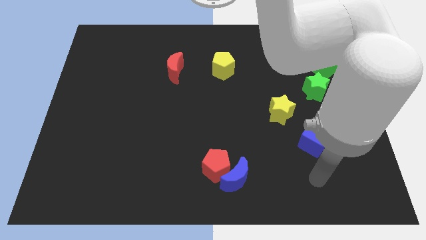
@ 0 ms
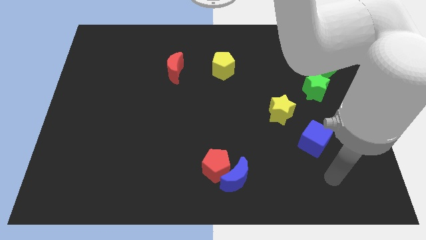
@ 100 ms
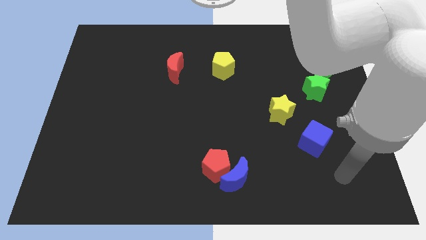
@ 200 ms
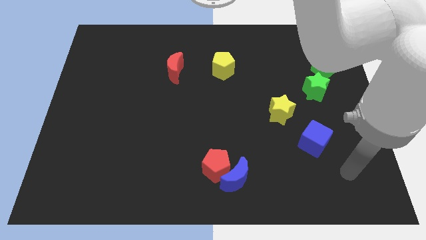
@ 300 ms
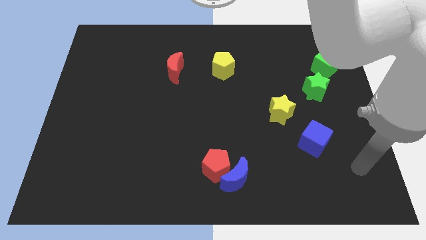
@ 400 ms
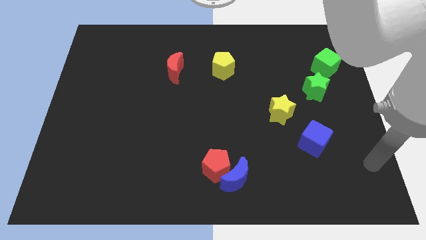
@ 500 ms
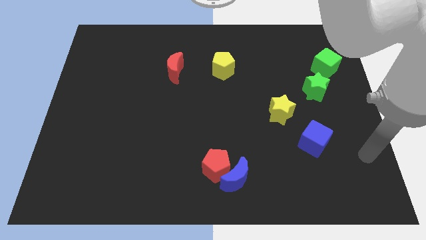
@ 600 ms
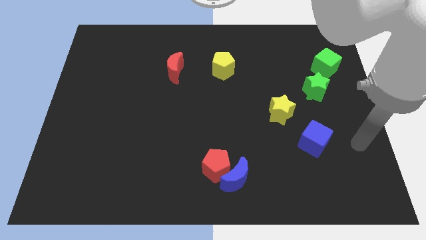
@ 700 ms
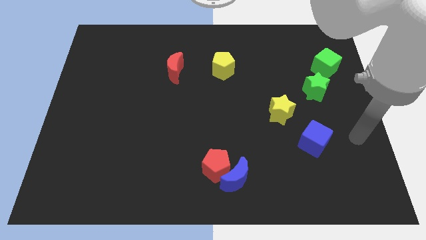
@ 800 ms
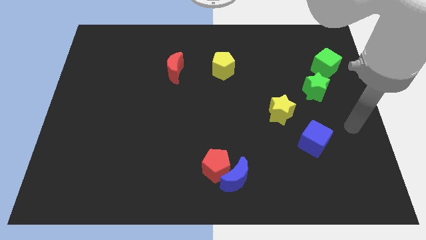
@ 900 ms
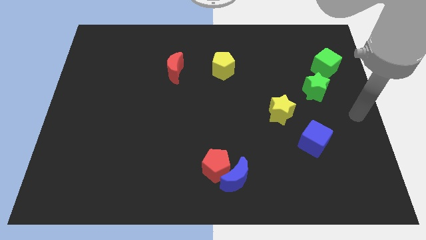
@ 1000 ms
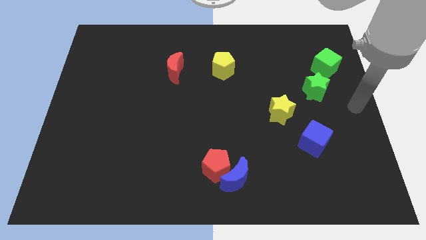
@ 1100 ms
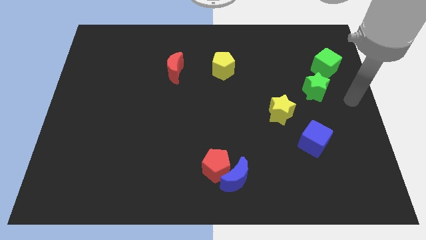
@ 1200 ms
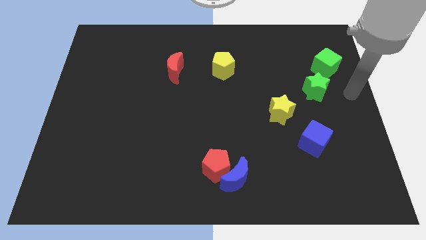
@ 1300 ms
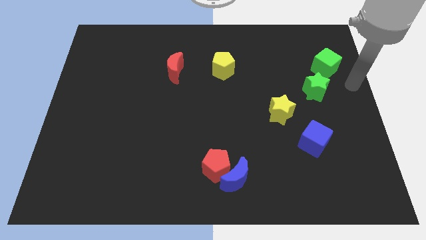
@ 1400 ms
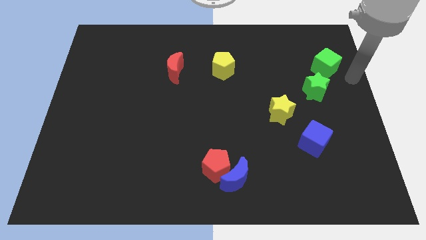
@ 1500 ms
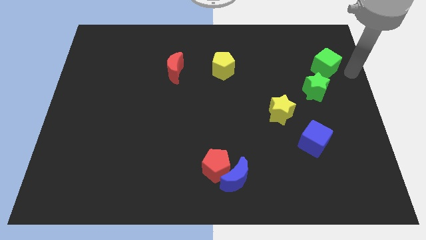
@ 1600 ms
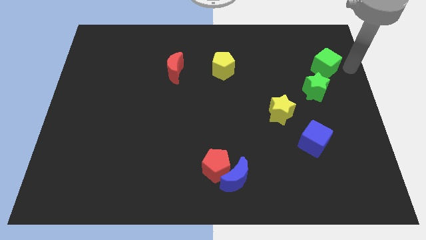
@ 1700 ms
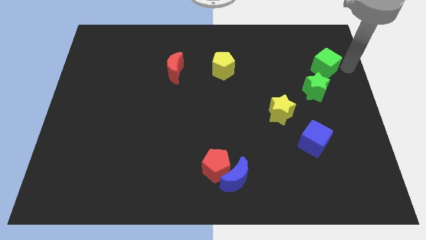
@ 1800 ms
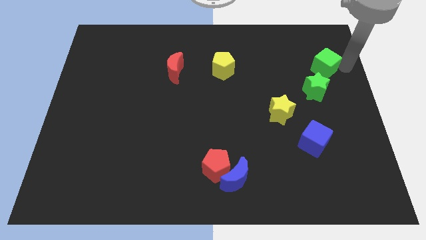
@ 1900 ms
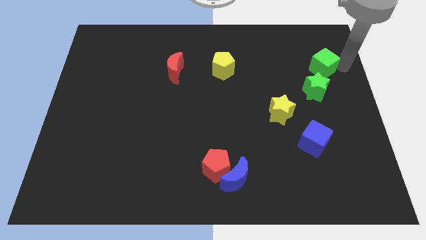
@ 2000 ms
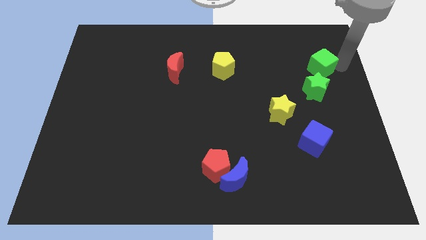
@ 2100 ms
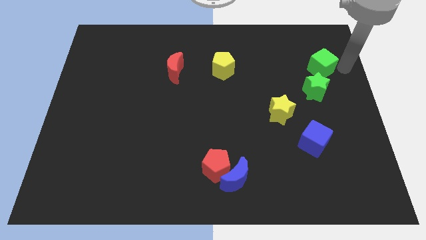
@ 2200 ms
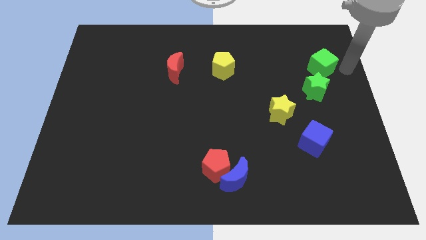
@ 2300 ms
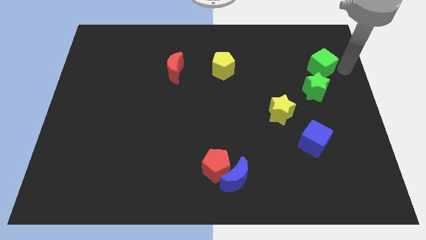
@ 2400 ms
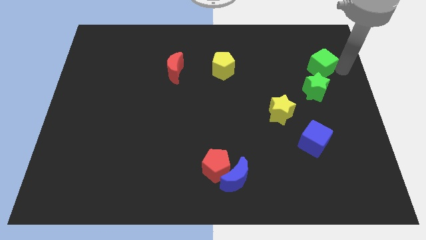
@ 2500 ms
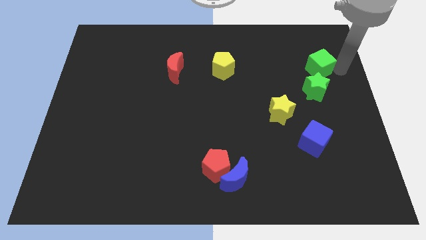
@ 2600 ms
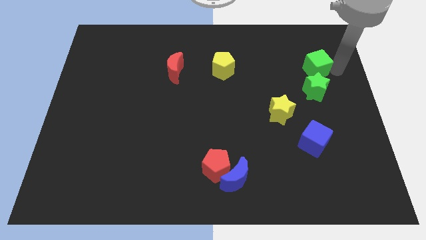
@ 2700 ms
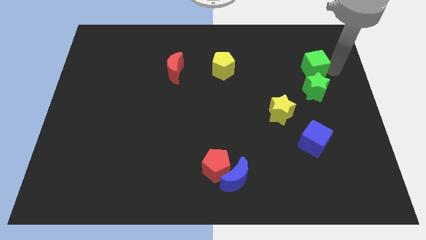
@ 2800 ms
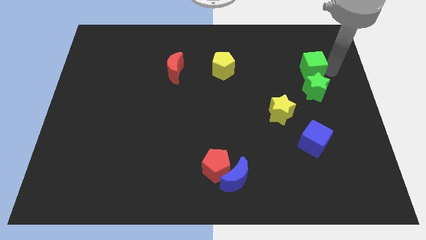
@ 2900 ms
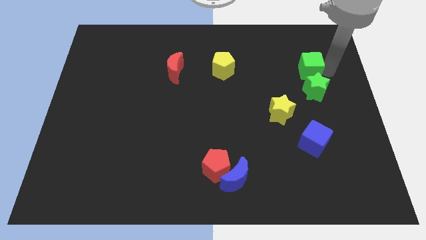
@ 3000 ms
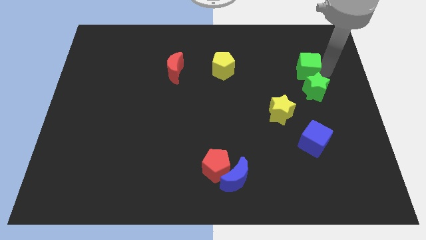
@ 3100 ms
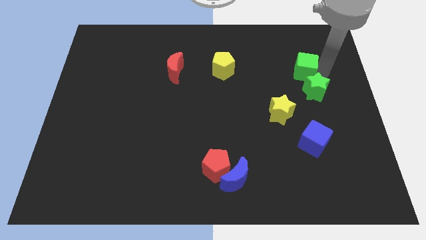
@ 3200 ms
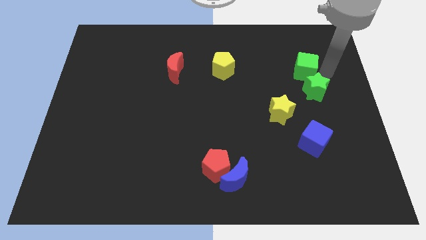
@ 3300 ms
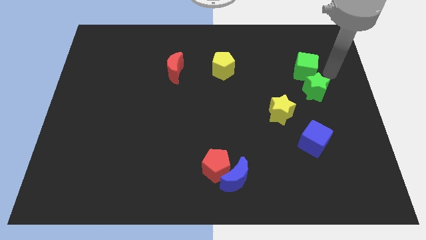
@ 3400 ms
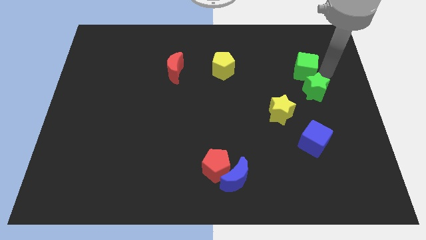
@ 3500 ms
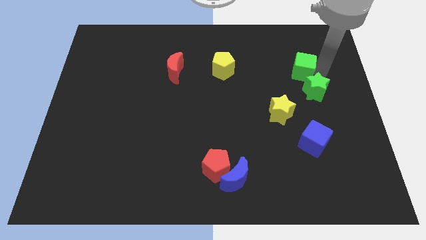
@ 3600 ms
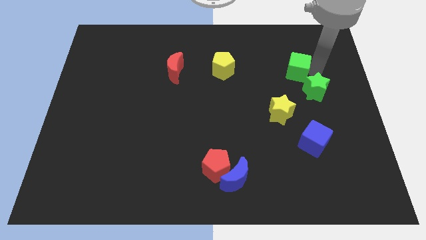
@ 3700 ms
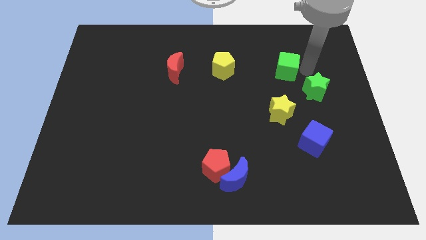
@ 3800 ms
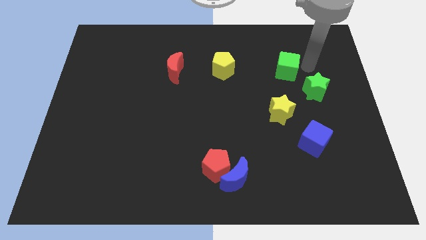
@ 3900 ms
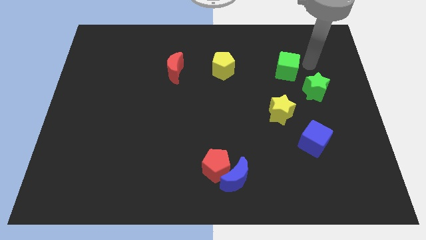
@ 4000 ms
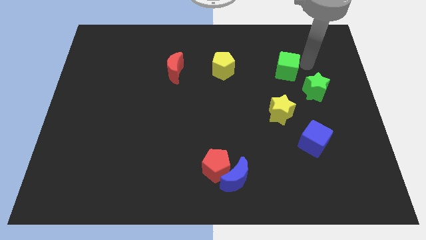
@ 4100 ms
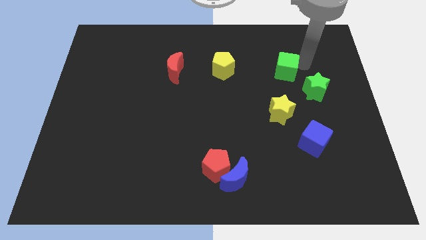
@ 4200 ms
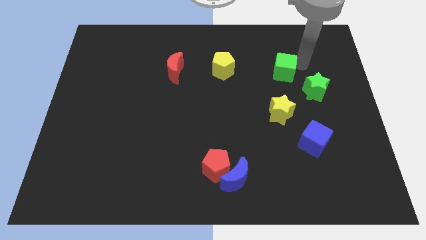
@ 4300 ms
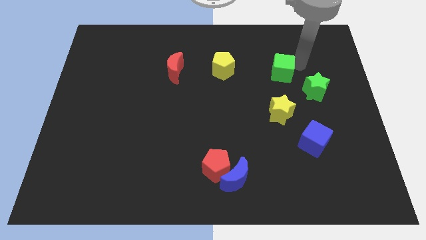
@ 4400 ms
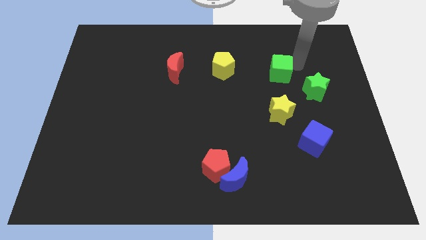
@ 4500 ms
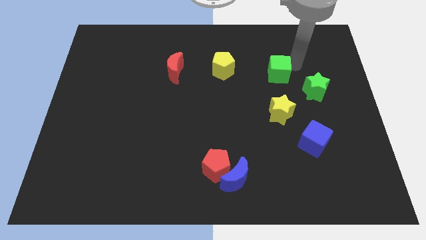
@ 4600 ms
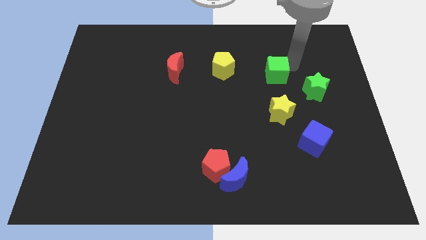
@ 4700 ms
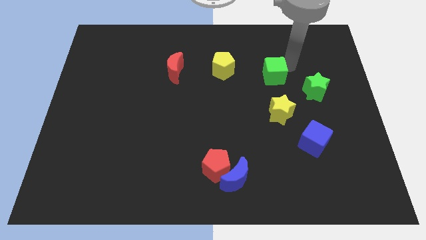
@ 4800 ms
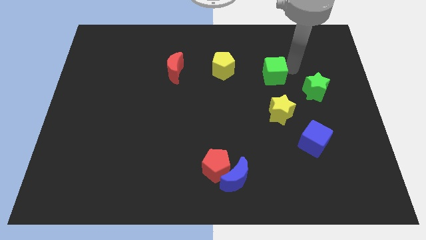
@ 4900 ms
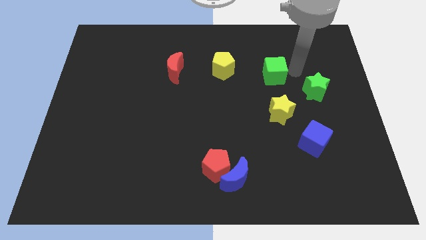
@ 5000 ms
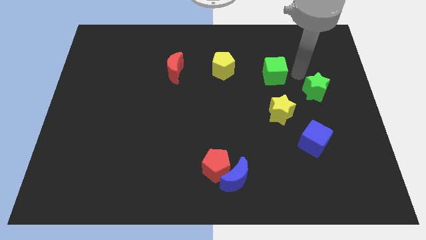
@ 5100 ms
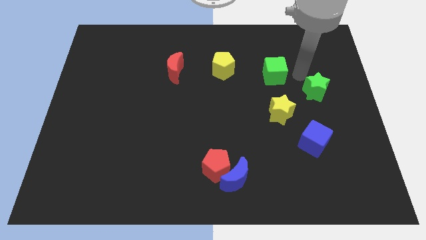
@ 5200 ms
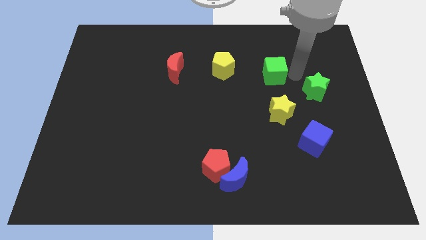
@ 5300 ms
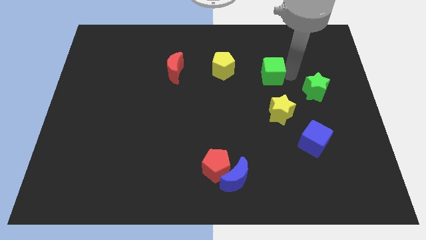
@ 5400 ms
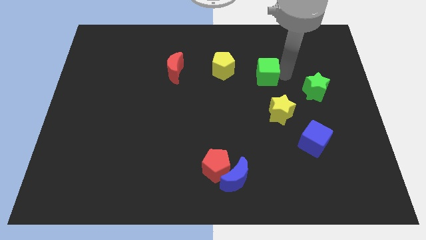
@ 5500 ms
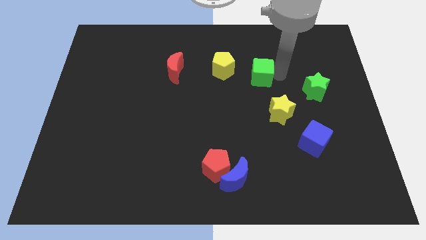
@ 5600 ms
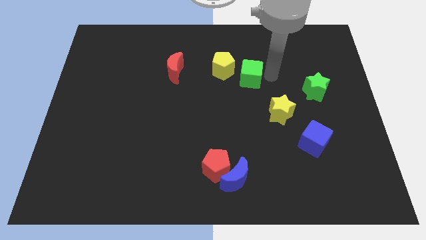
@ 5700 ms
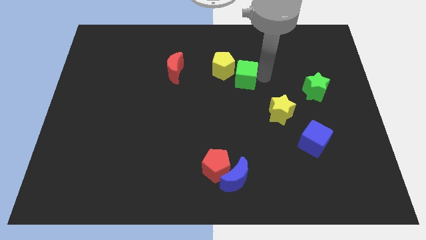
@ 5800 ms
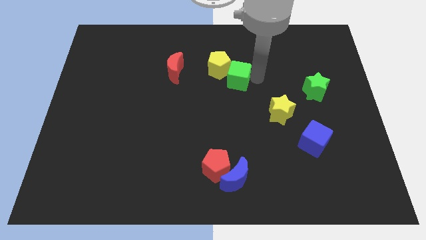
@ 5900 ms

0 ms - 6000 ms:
push the green cube towards the yellow pentagon

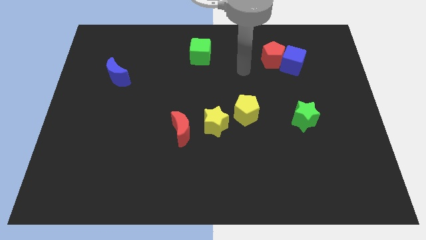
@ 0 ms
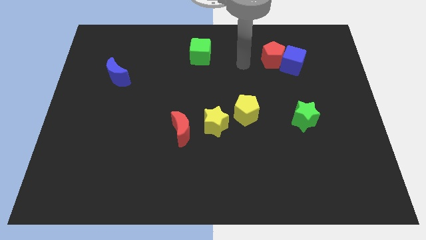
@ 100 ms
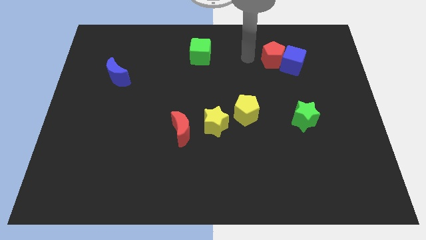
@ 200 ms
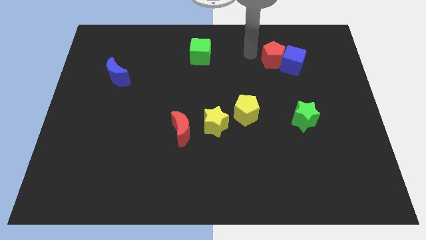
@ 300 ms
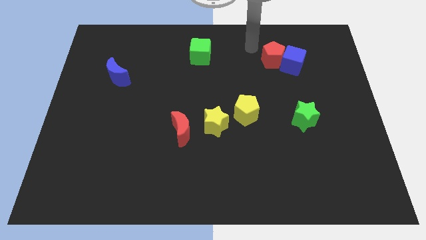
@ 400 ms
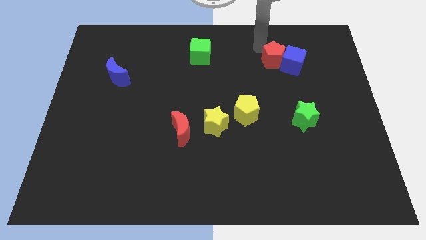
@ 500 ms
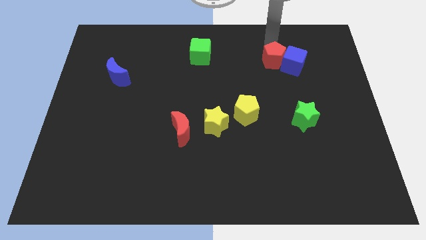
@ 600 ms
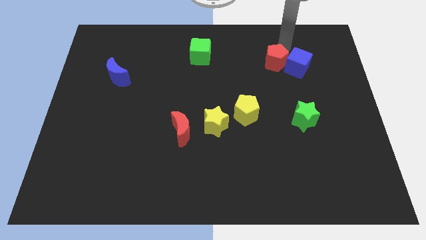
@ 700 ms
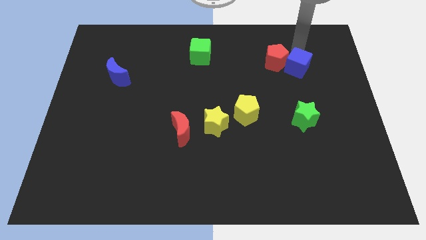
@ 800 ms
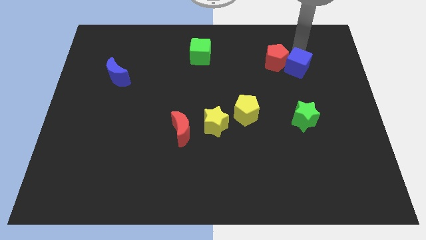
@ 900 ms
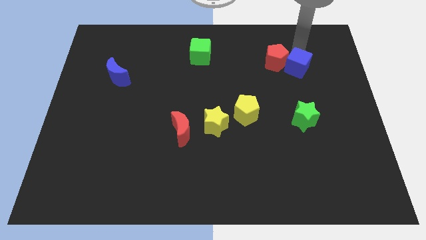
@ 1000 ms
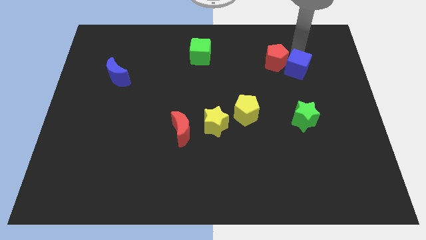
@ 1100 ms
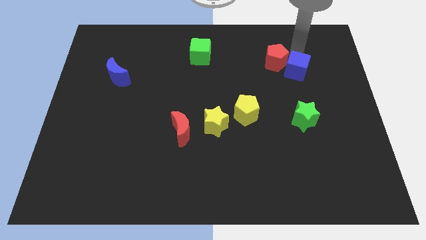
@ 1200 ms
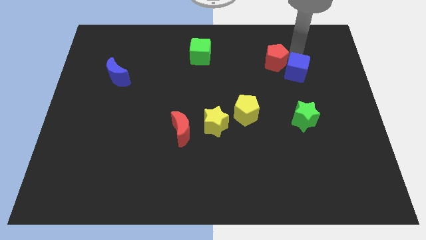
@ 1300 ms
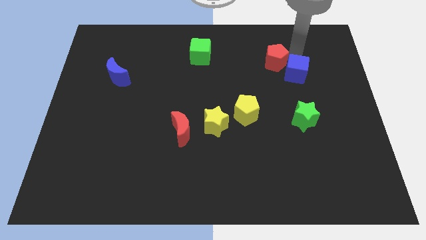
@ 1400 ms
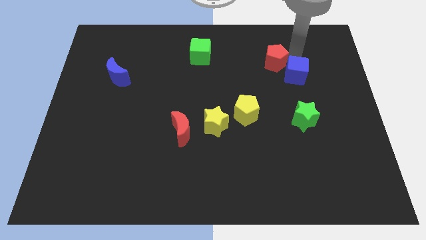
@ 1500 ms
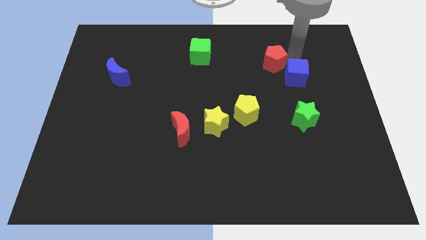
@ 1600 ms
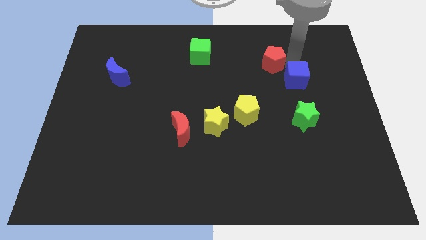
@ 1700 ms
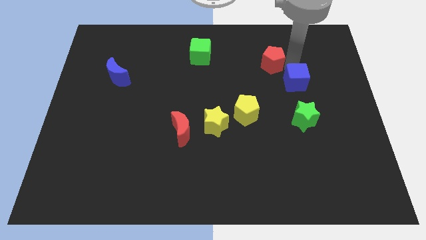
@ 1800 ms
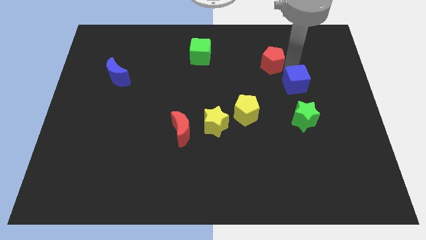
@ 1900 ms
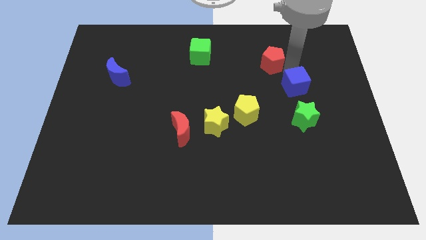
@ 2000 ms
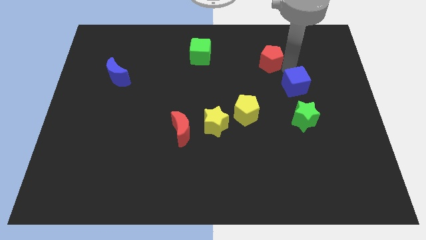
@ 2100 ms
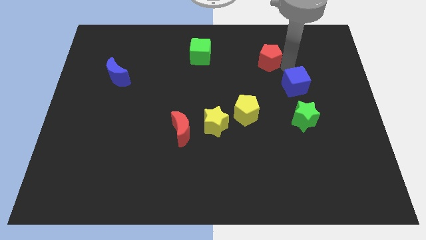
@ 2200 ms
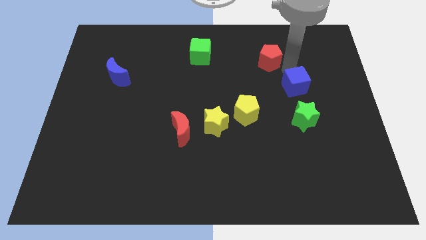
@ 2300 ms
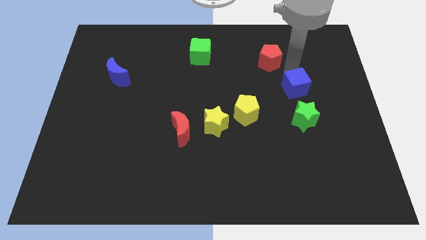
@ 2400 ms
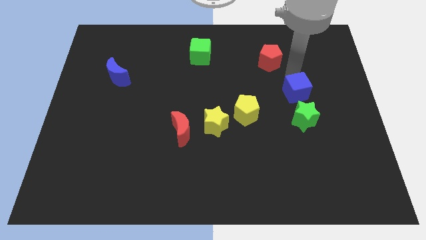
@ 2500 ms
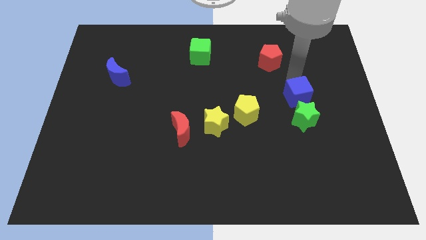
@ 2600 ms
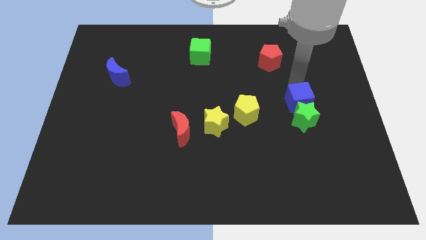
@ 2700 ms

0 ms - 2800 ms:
slide the blue cube next to the green star
